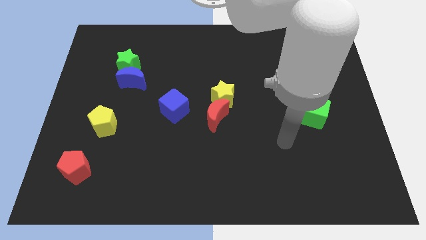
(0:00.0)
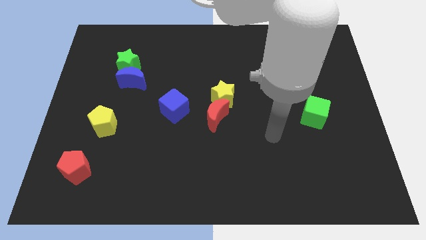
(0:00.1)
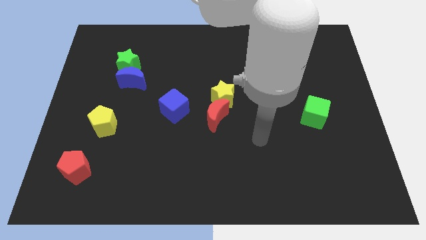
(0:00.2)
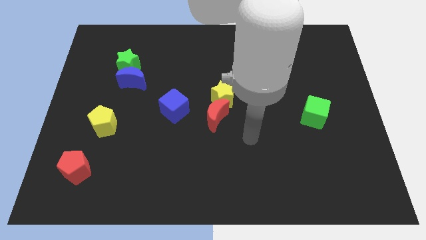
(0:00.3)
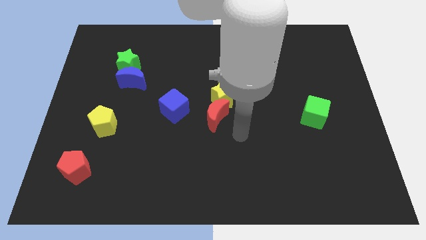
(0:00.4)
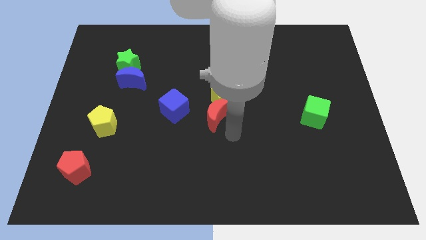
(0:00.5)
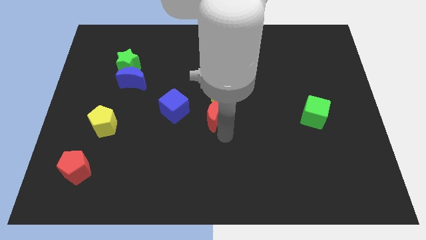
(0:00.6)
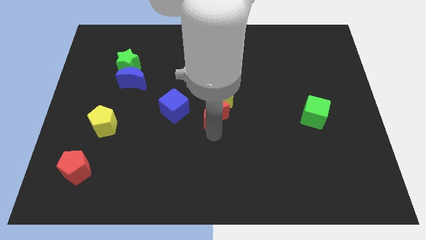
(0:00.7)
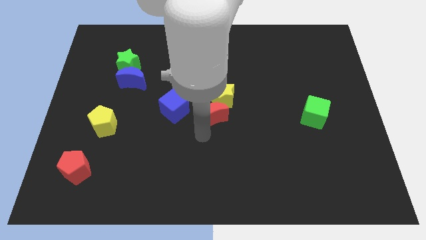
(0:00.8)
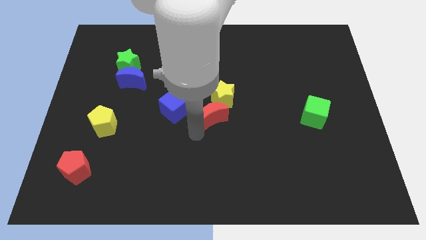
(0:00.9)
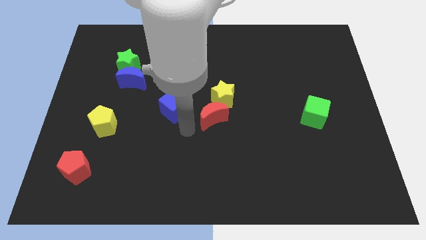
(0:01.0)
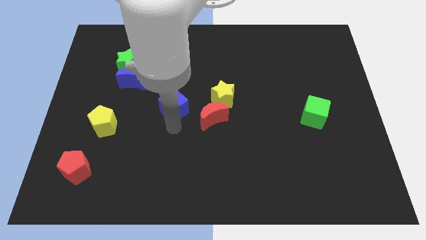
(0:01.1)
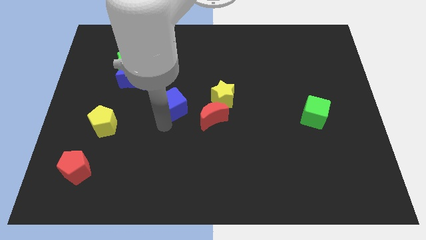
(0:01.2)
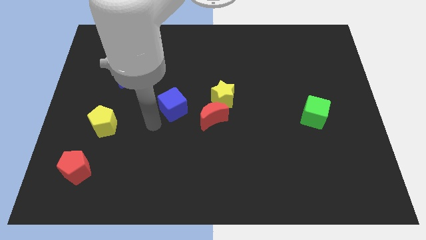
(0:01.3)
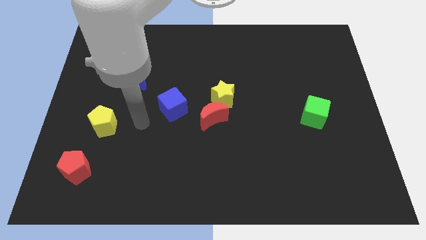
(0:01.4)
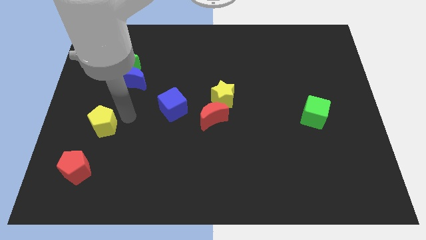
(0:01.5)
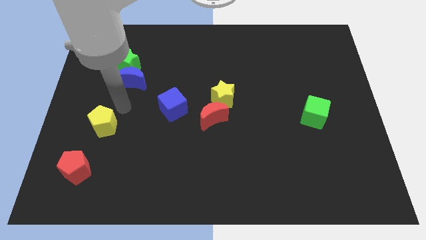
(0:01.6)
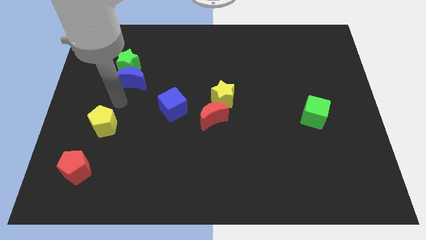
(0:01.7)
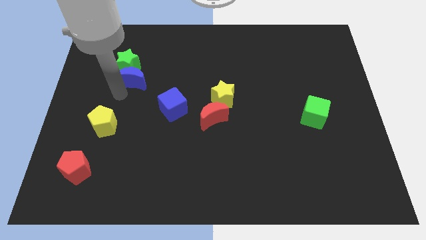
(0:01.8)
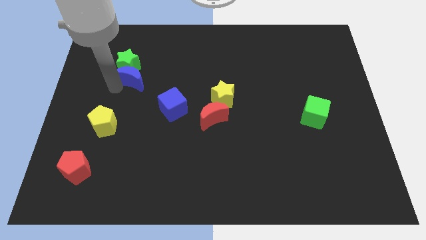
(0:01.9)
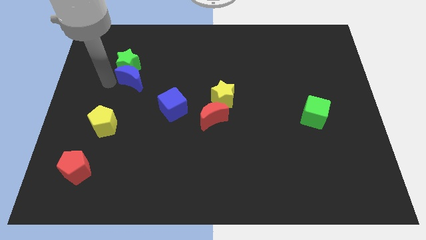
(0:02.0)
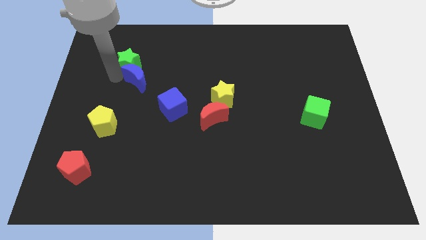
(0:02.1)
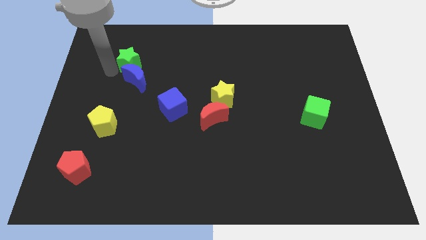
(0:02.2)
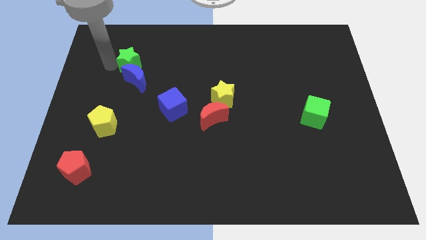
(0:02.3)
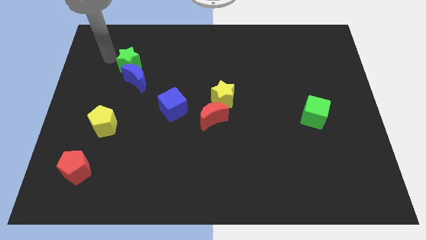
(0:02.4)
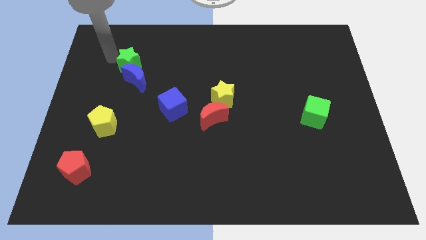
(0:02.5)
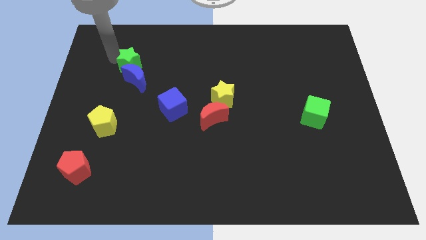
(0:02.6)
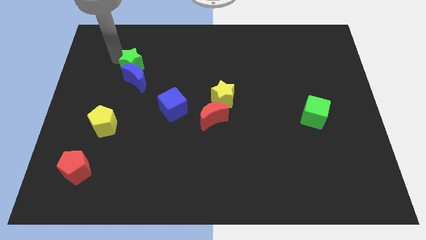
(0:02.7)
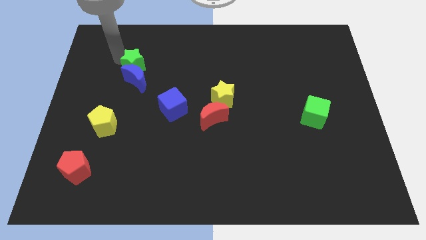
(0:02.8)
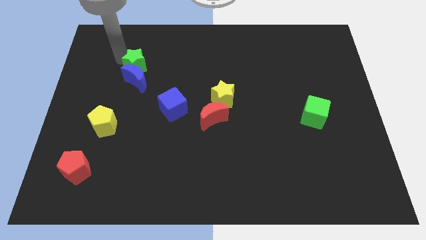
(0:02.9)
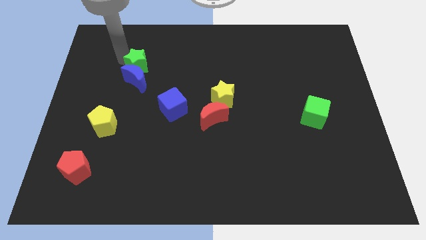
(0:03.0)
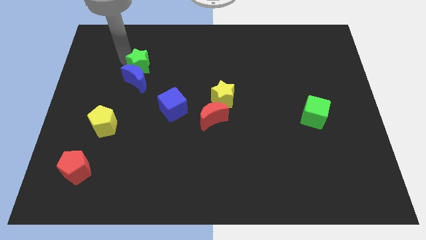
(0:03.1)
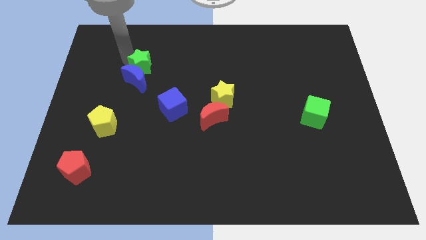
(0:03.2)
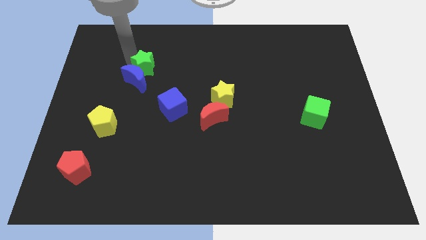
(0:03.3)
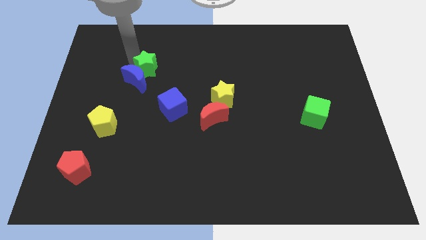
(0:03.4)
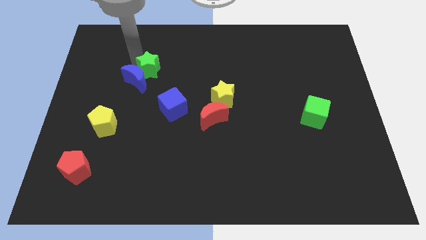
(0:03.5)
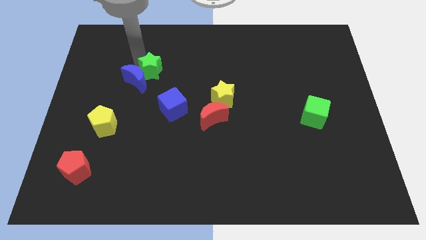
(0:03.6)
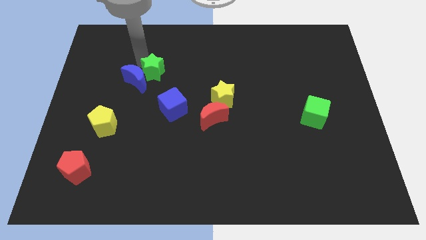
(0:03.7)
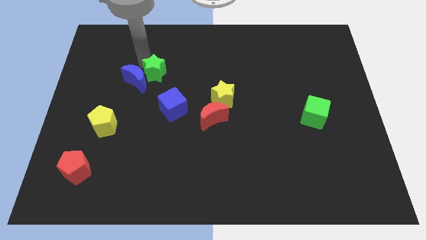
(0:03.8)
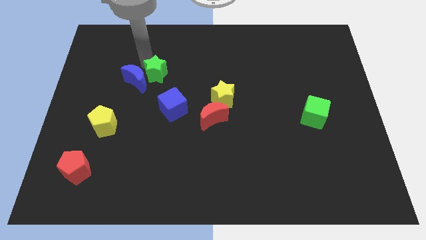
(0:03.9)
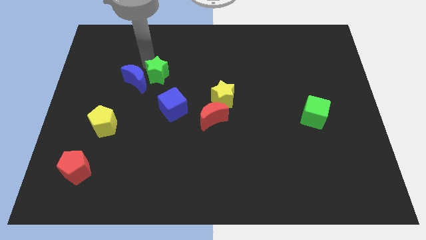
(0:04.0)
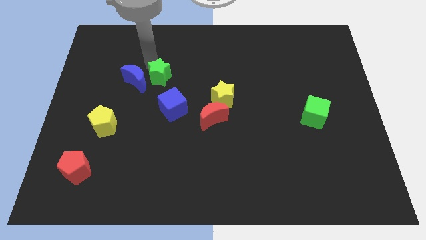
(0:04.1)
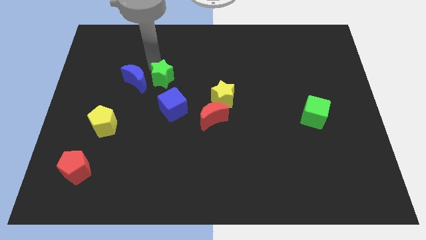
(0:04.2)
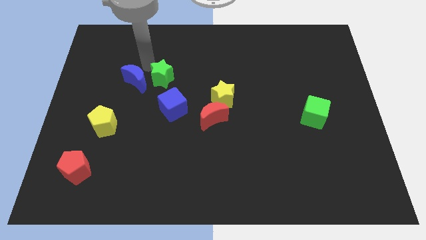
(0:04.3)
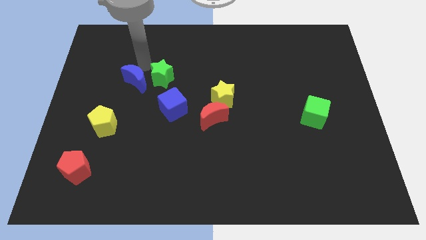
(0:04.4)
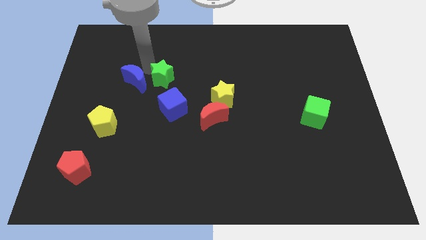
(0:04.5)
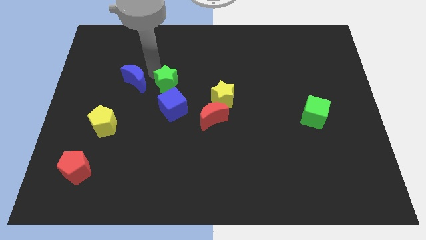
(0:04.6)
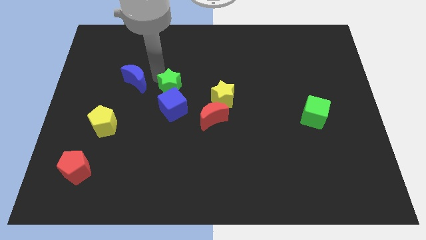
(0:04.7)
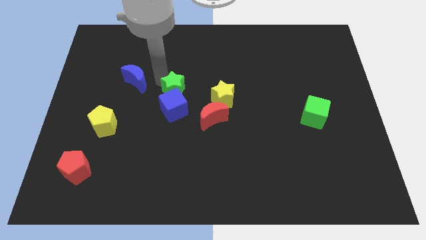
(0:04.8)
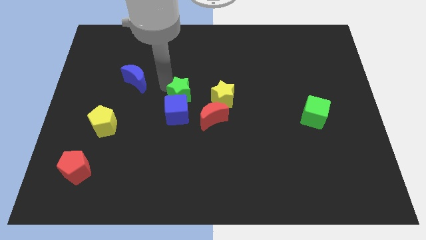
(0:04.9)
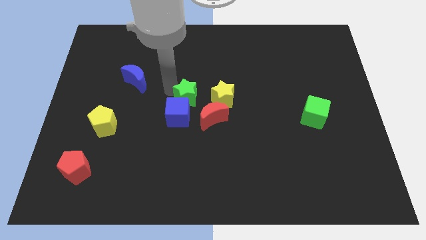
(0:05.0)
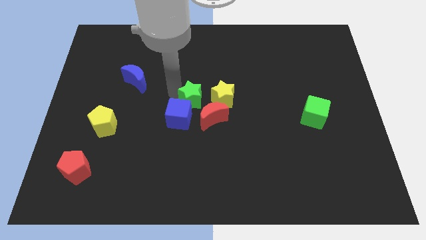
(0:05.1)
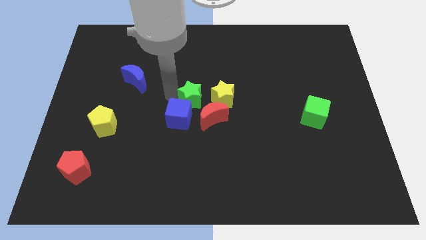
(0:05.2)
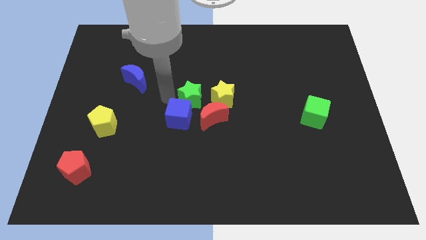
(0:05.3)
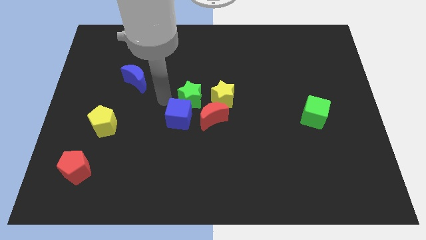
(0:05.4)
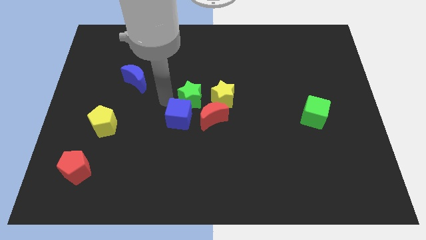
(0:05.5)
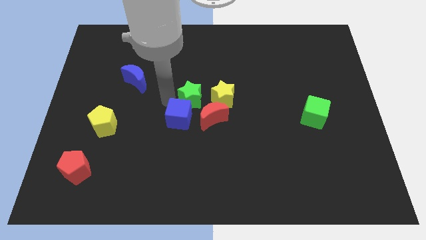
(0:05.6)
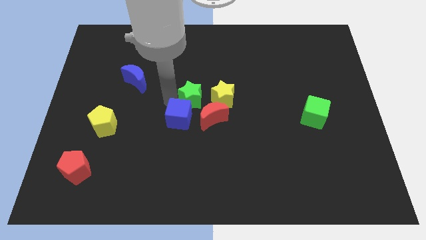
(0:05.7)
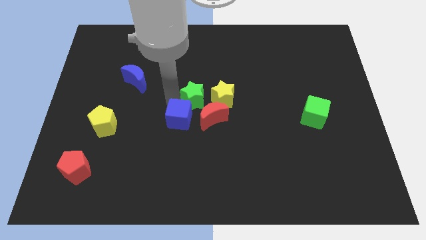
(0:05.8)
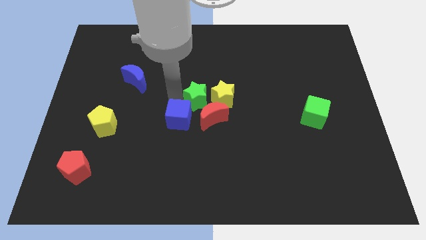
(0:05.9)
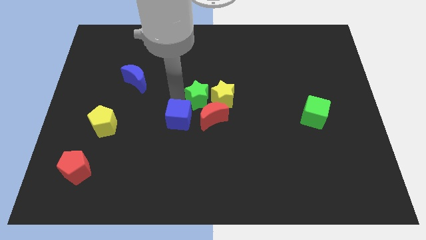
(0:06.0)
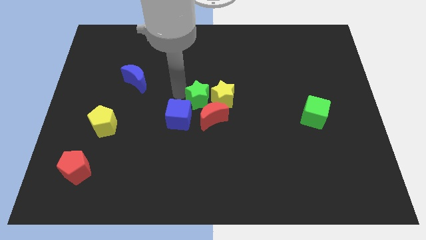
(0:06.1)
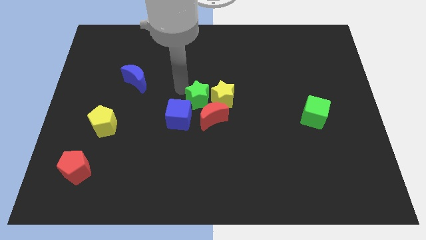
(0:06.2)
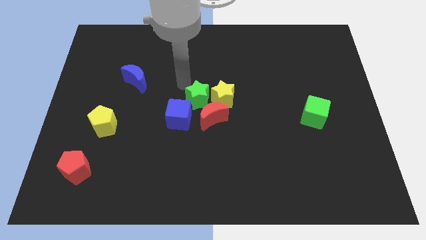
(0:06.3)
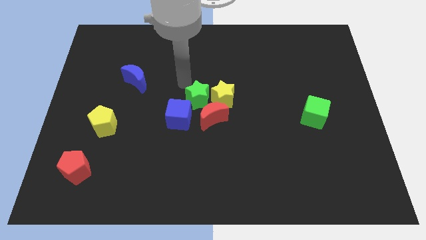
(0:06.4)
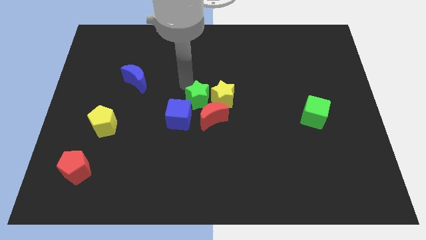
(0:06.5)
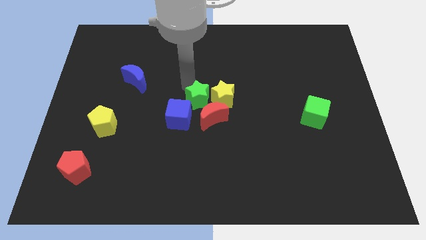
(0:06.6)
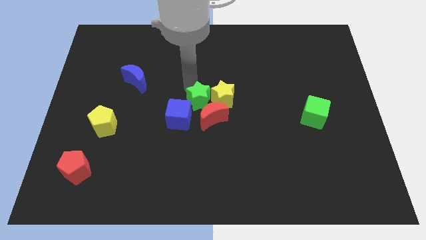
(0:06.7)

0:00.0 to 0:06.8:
push the green star towards the red moon

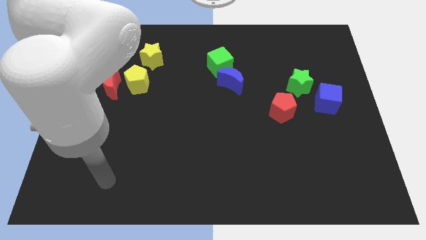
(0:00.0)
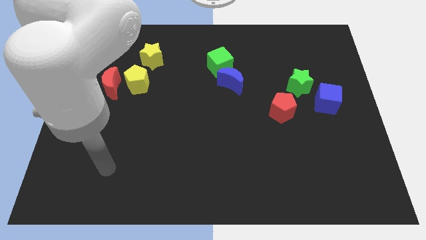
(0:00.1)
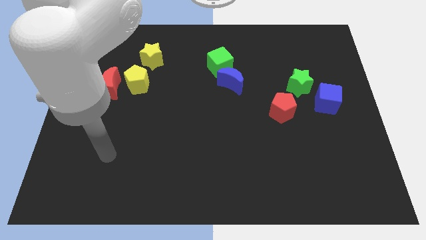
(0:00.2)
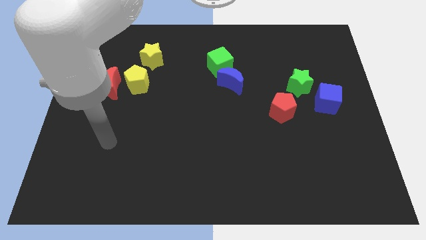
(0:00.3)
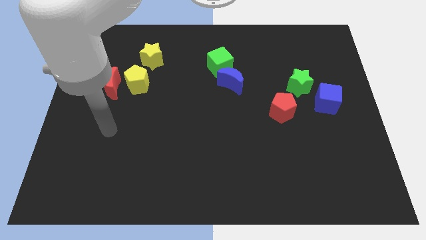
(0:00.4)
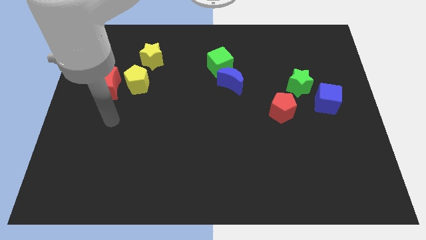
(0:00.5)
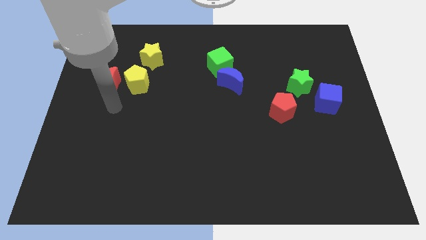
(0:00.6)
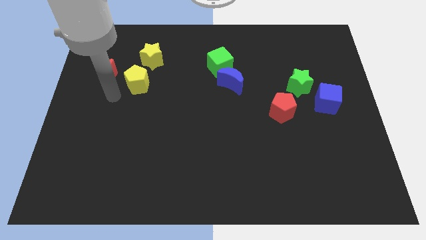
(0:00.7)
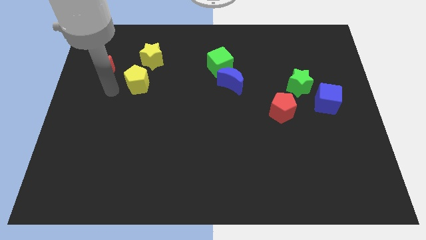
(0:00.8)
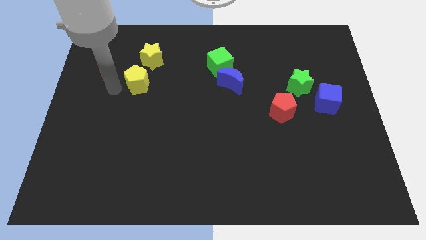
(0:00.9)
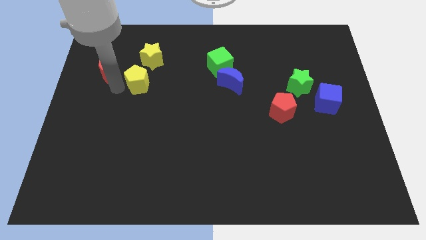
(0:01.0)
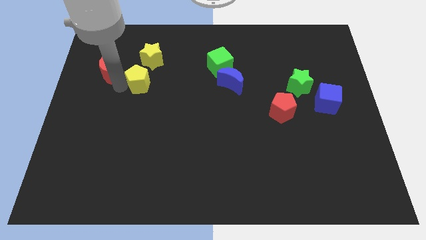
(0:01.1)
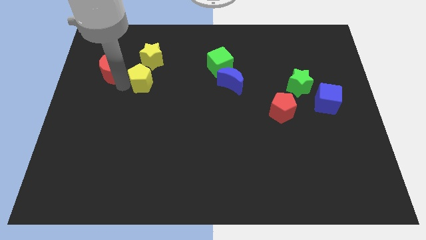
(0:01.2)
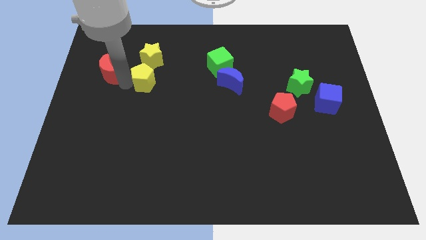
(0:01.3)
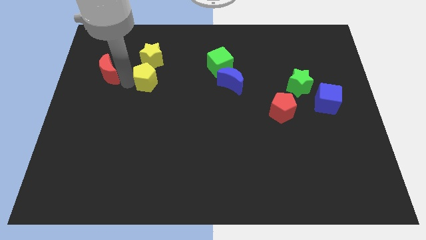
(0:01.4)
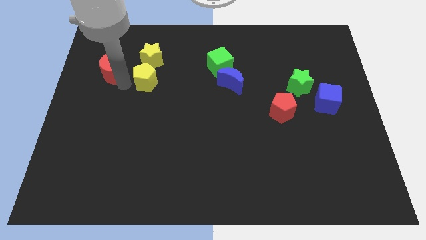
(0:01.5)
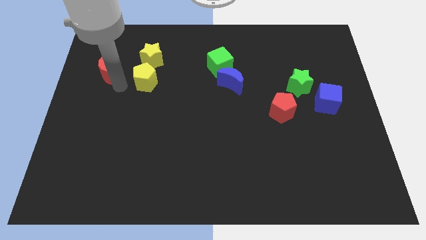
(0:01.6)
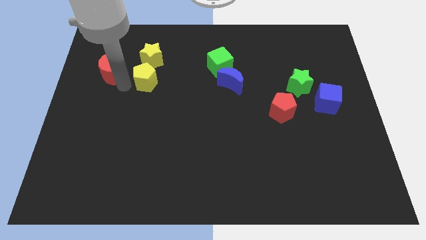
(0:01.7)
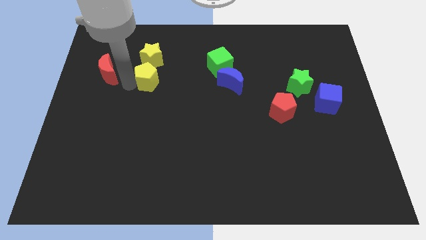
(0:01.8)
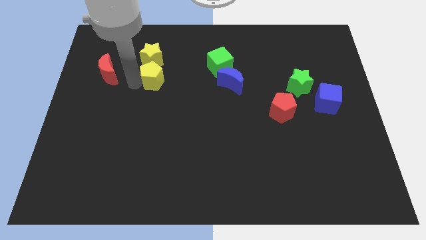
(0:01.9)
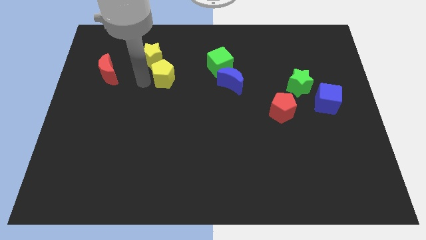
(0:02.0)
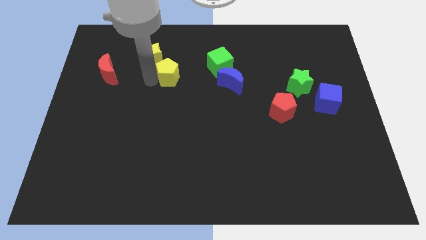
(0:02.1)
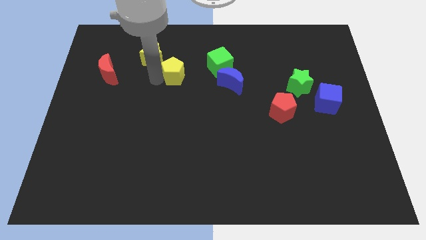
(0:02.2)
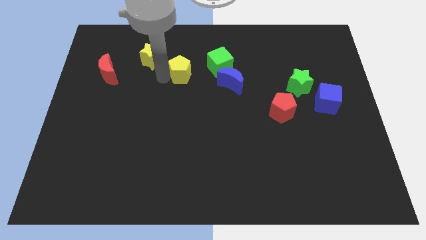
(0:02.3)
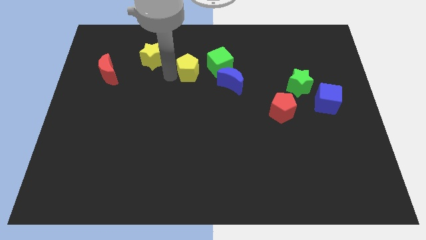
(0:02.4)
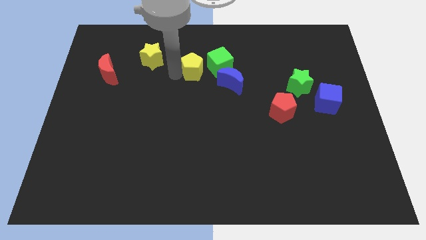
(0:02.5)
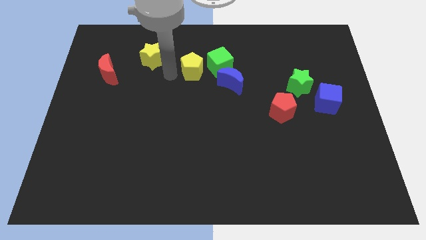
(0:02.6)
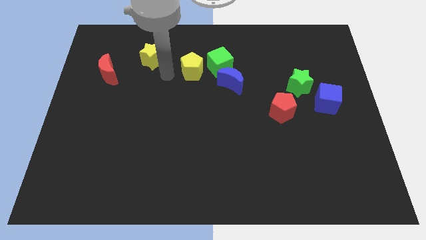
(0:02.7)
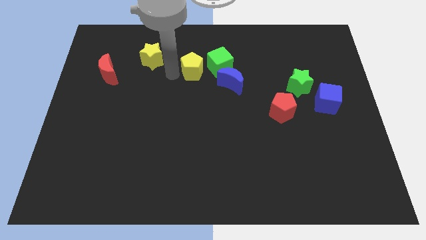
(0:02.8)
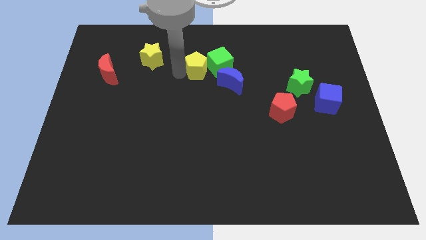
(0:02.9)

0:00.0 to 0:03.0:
slide the yellow pentagon to the green cube
